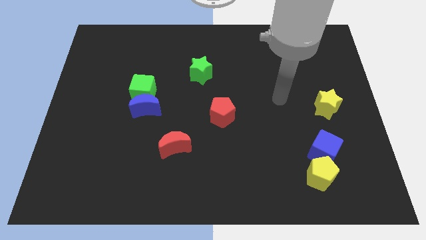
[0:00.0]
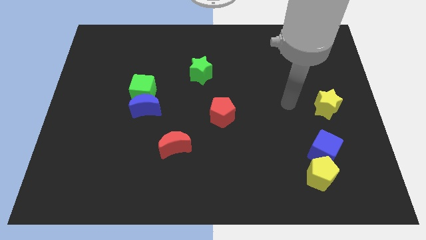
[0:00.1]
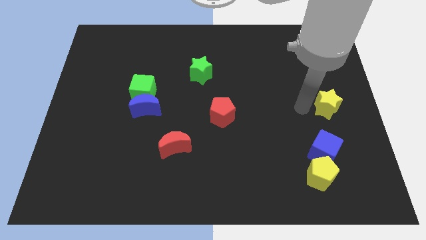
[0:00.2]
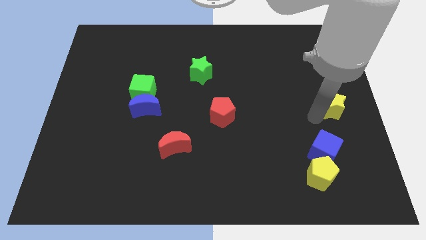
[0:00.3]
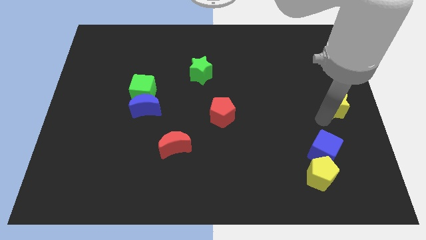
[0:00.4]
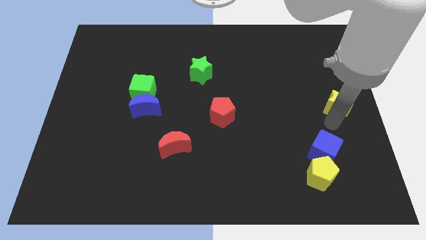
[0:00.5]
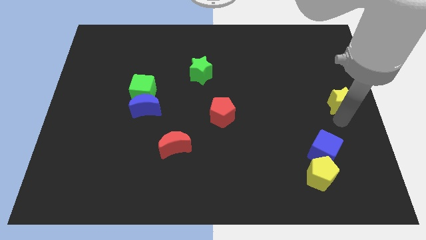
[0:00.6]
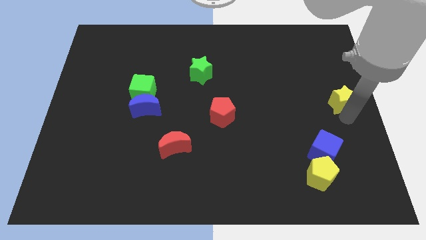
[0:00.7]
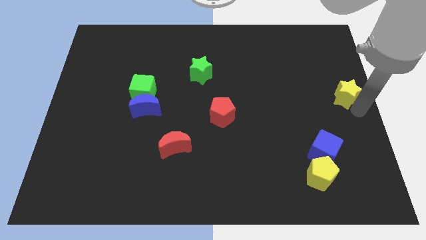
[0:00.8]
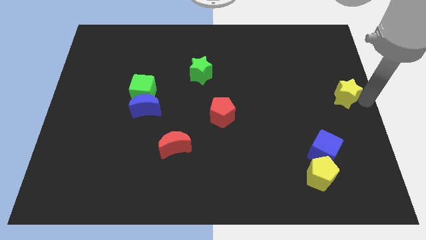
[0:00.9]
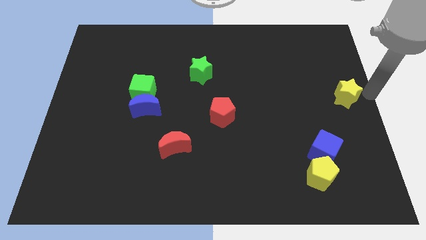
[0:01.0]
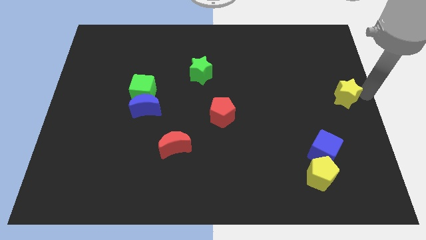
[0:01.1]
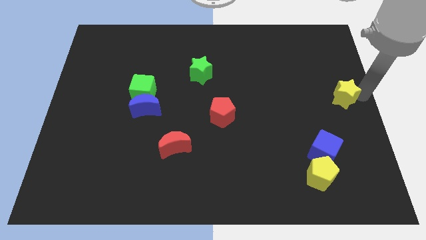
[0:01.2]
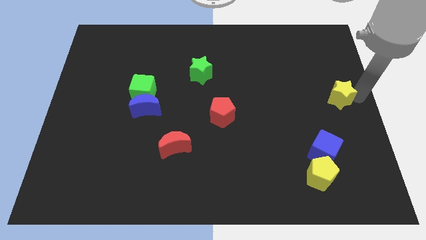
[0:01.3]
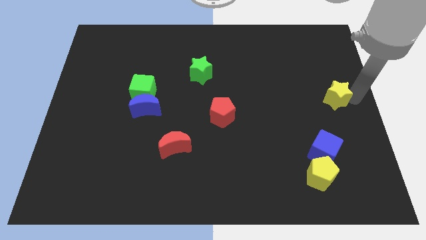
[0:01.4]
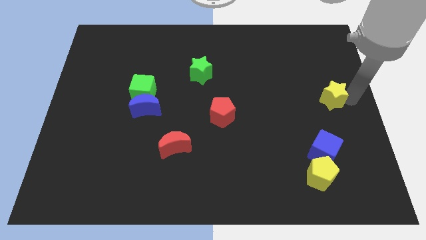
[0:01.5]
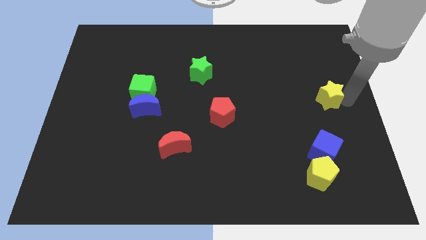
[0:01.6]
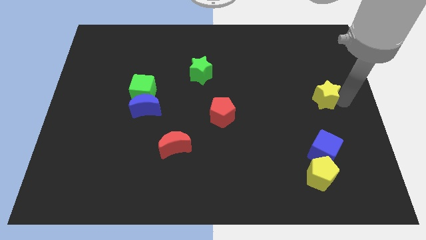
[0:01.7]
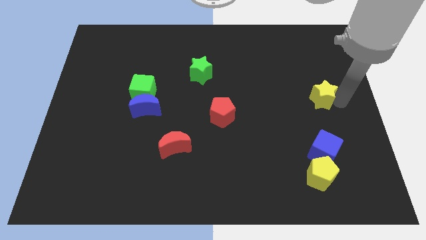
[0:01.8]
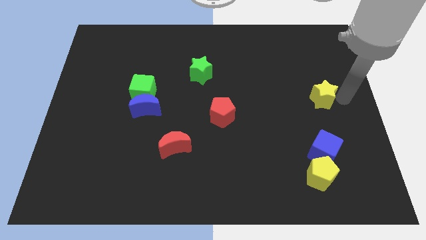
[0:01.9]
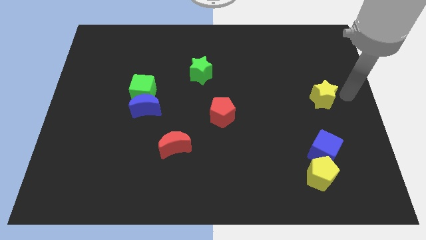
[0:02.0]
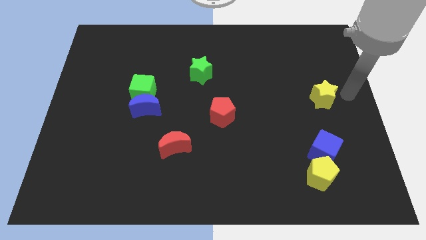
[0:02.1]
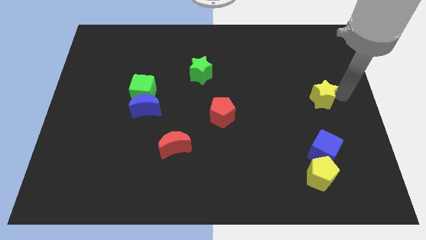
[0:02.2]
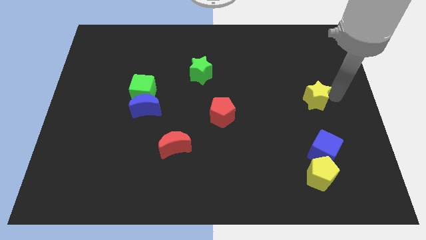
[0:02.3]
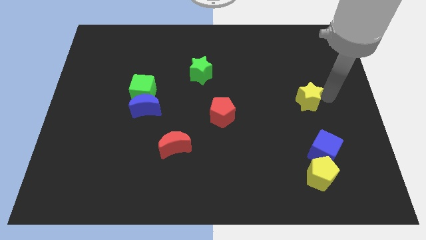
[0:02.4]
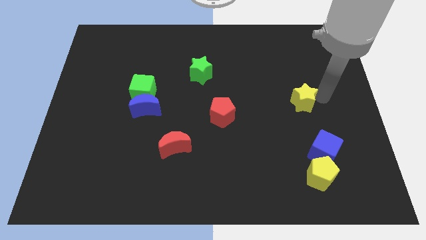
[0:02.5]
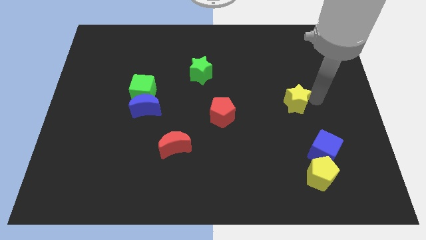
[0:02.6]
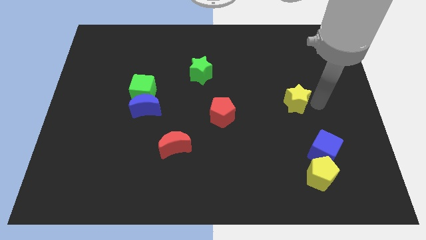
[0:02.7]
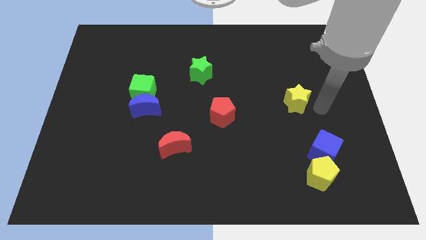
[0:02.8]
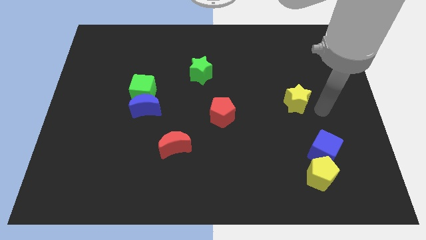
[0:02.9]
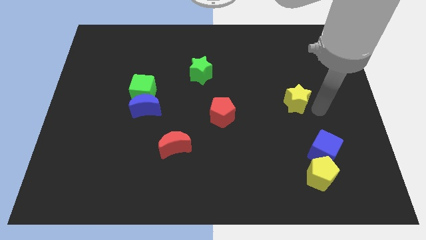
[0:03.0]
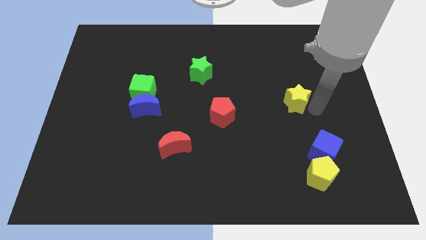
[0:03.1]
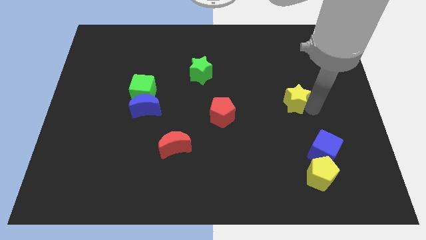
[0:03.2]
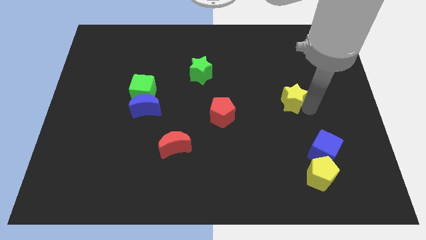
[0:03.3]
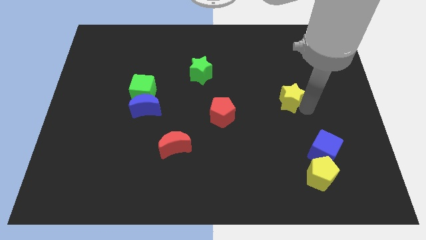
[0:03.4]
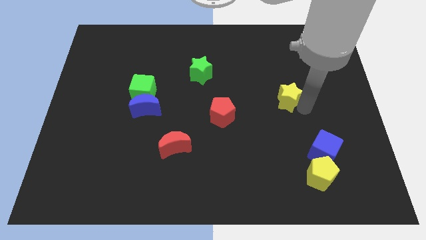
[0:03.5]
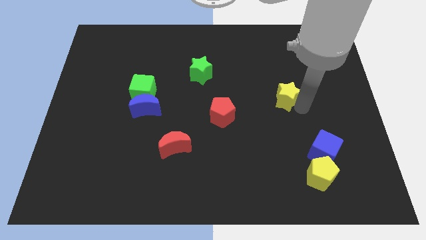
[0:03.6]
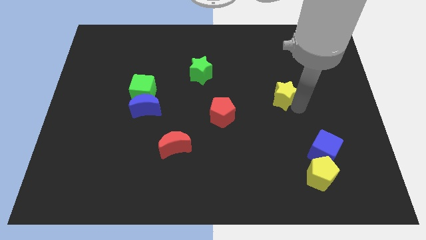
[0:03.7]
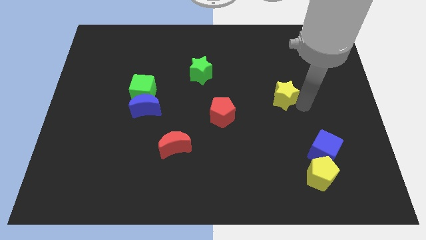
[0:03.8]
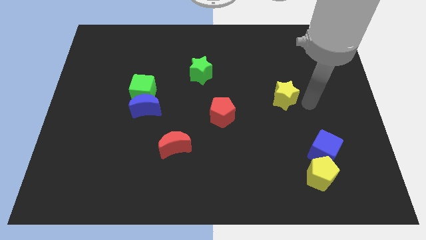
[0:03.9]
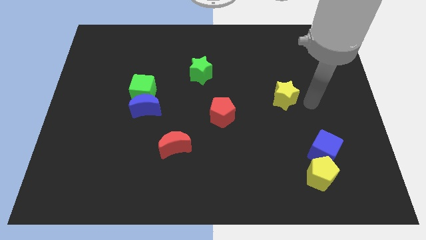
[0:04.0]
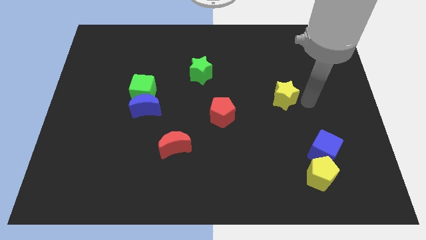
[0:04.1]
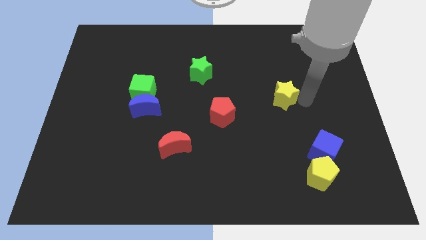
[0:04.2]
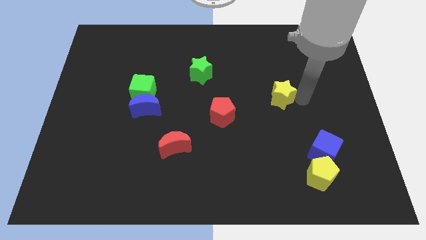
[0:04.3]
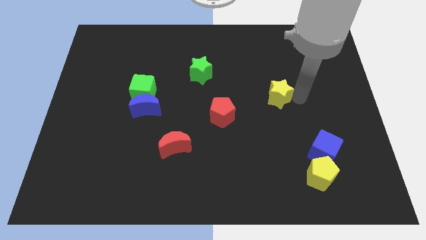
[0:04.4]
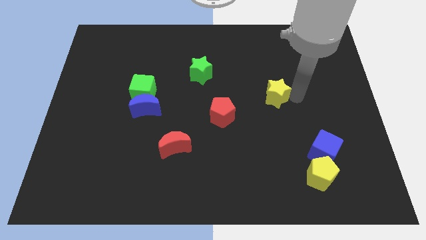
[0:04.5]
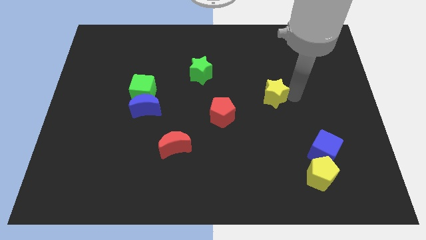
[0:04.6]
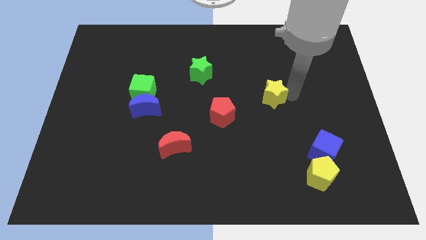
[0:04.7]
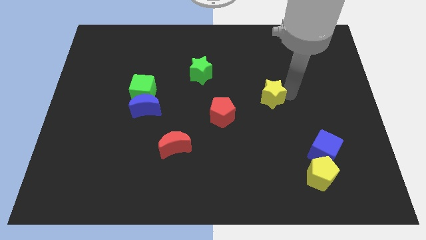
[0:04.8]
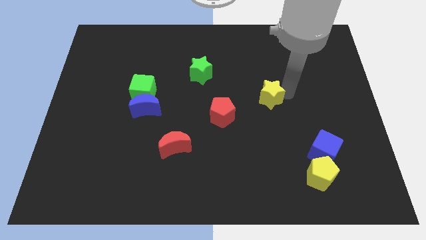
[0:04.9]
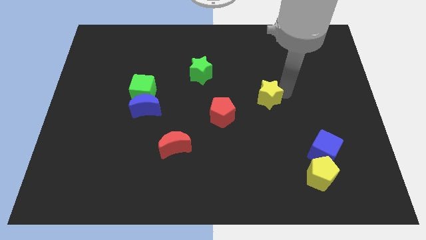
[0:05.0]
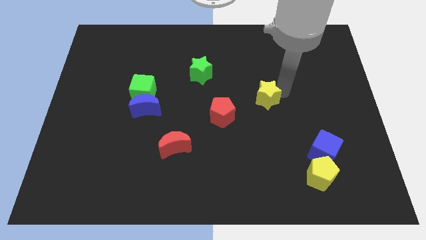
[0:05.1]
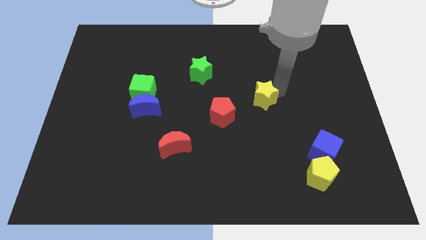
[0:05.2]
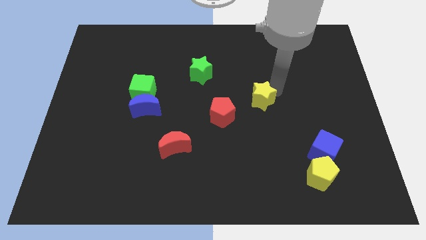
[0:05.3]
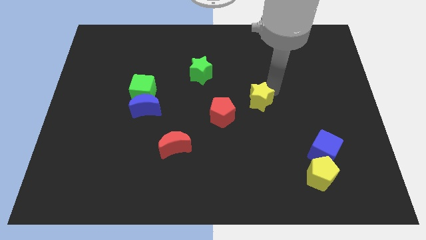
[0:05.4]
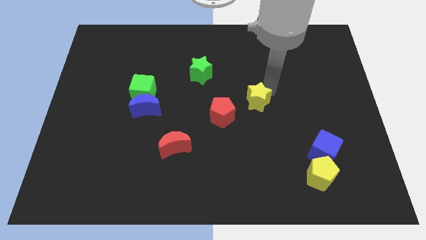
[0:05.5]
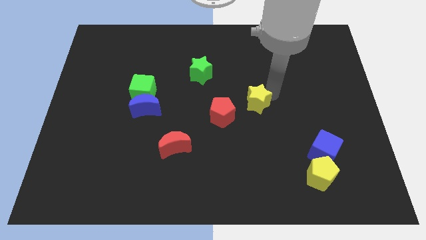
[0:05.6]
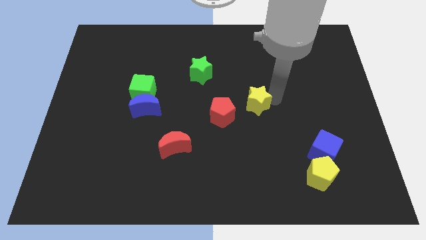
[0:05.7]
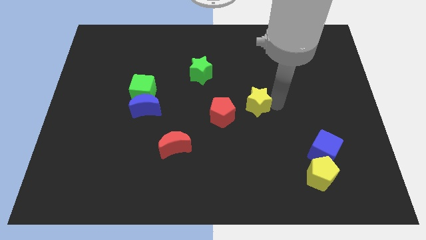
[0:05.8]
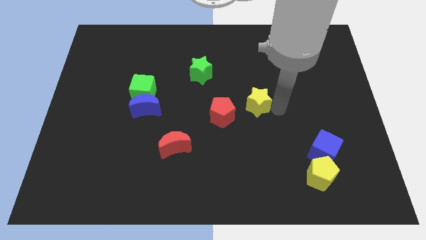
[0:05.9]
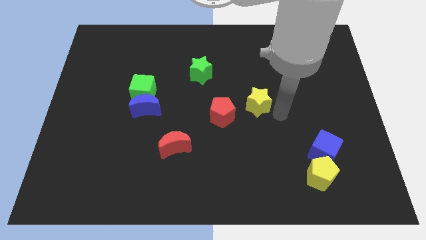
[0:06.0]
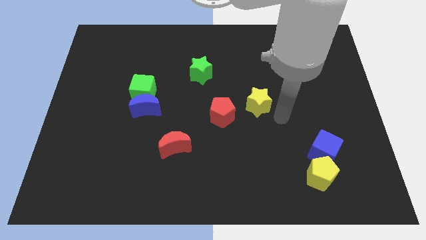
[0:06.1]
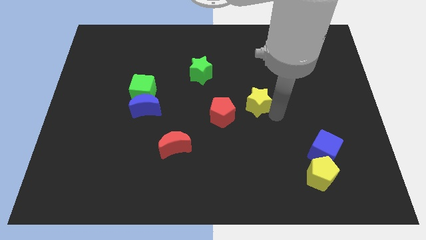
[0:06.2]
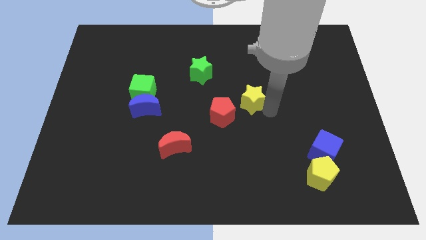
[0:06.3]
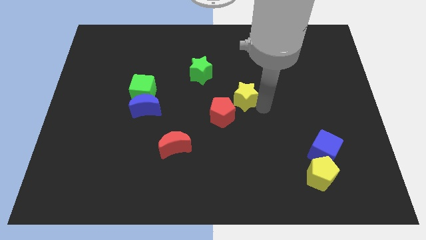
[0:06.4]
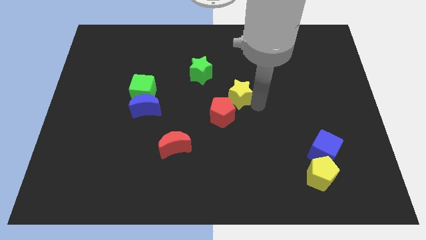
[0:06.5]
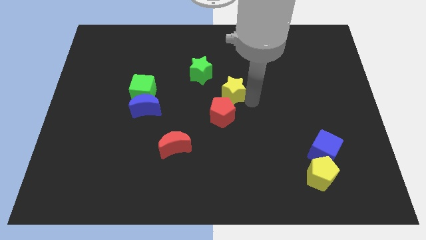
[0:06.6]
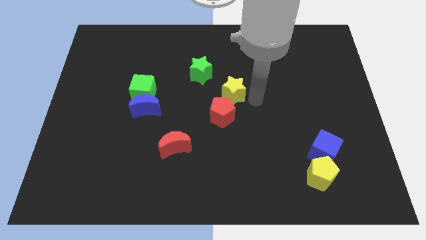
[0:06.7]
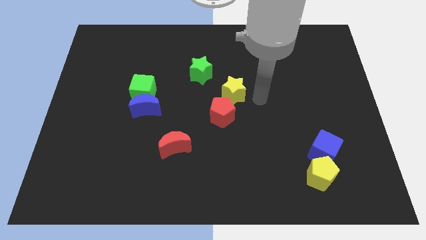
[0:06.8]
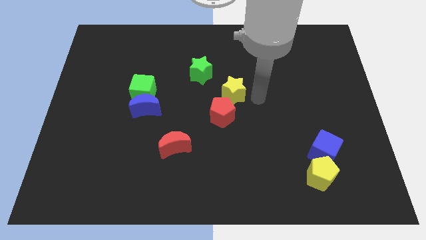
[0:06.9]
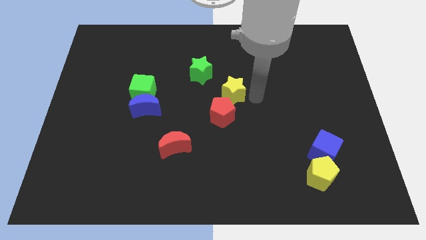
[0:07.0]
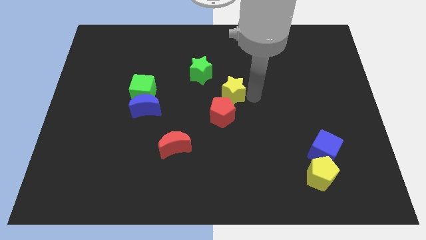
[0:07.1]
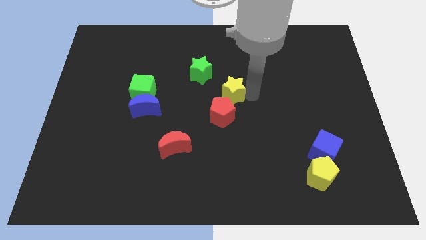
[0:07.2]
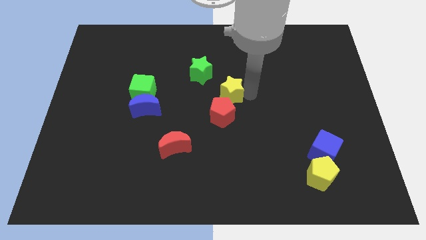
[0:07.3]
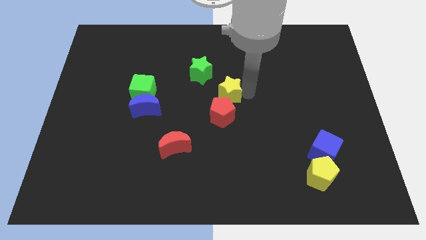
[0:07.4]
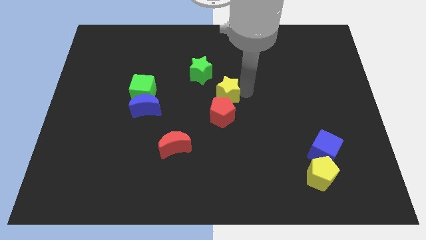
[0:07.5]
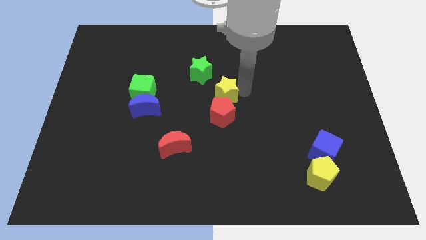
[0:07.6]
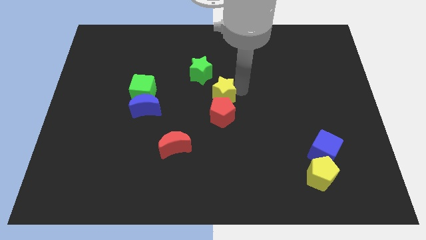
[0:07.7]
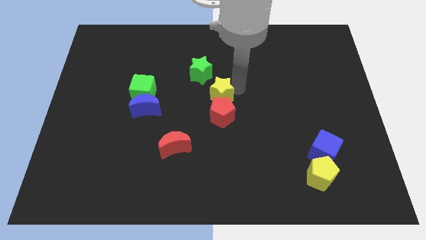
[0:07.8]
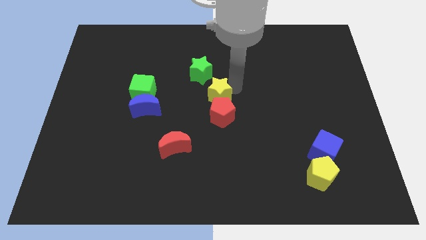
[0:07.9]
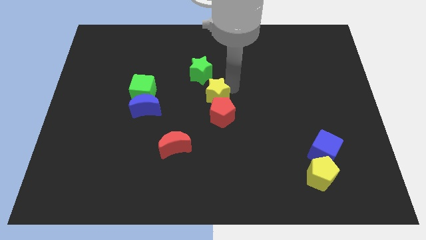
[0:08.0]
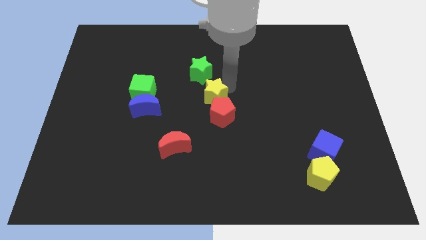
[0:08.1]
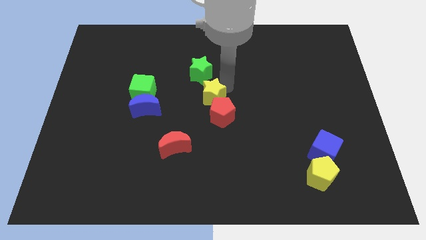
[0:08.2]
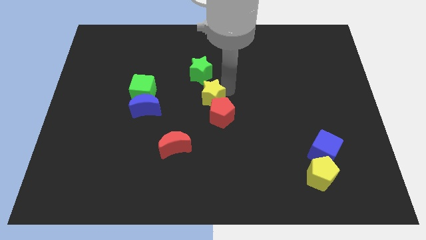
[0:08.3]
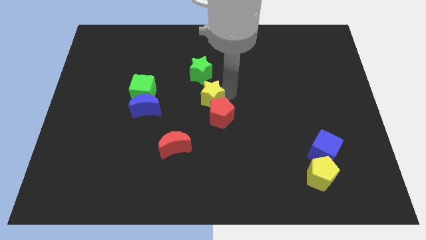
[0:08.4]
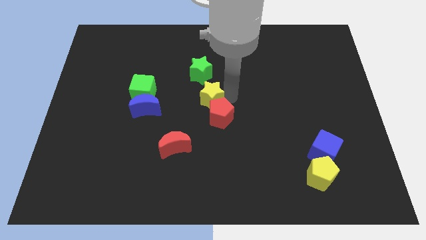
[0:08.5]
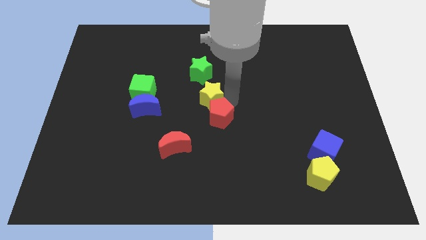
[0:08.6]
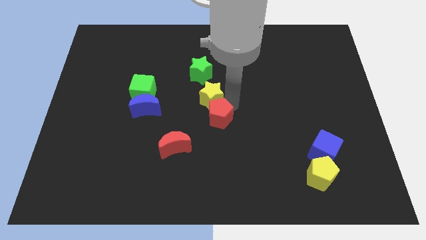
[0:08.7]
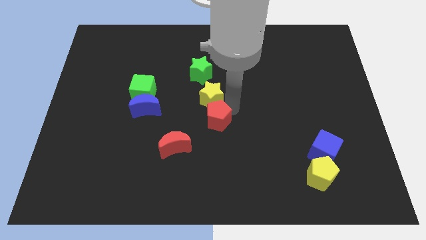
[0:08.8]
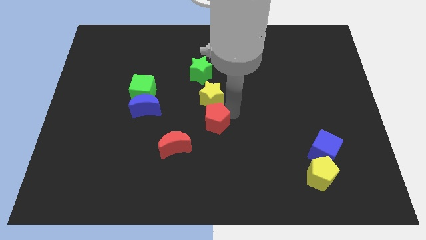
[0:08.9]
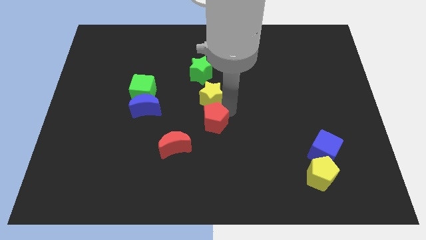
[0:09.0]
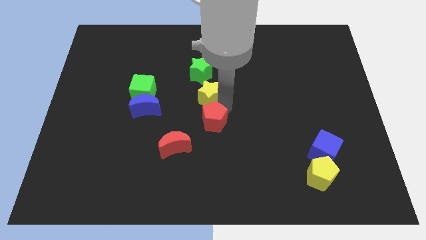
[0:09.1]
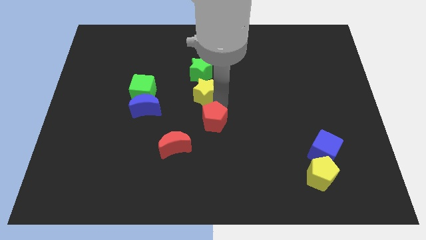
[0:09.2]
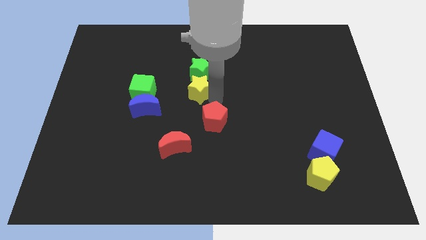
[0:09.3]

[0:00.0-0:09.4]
slide the yellow star to the bottom left side of the green star
